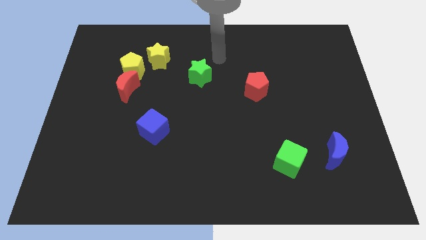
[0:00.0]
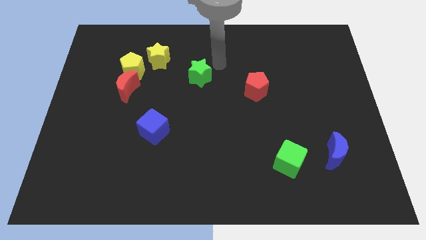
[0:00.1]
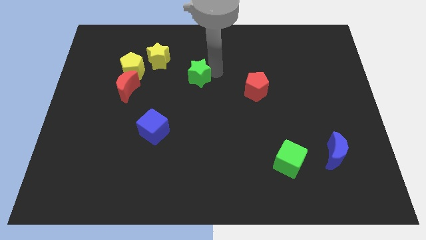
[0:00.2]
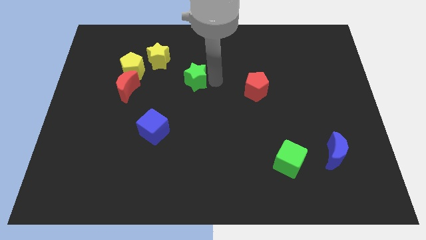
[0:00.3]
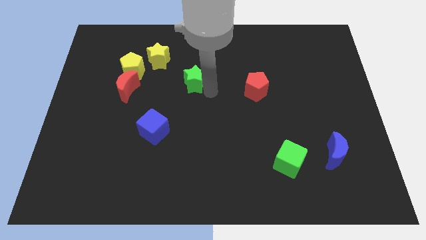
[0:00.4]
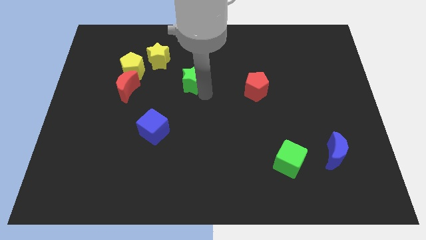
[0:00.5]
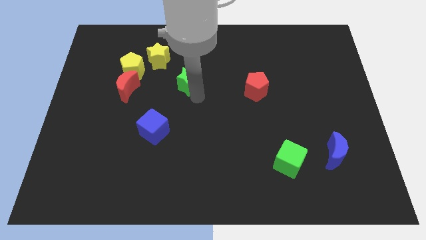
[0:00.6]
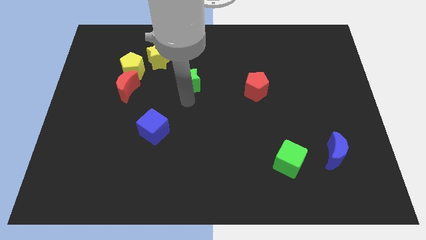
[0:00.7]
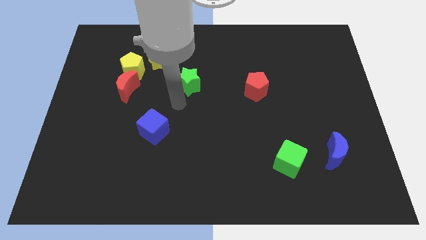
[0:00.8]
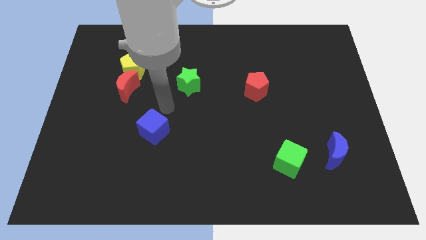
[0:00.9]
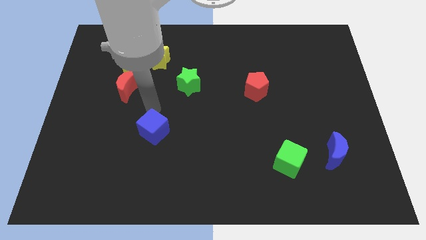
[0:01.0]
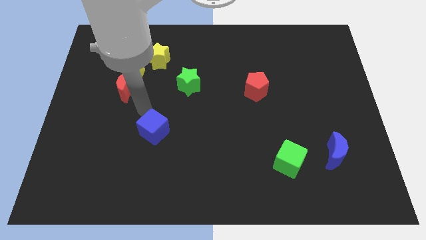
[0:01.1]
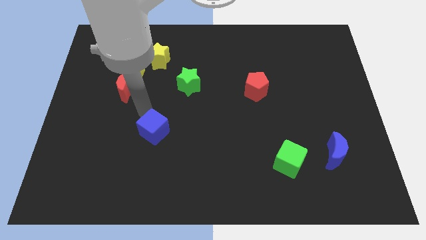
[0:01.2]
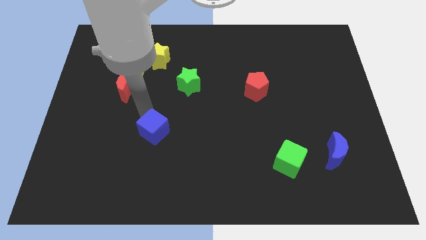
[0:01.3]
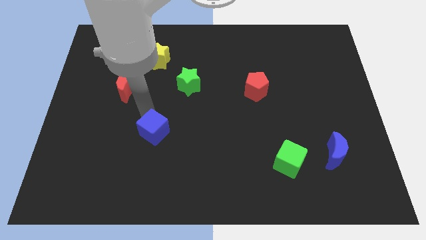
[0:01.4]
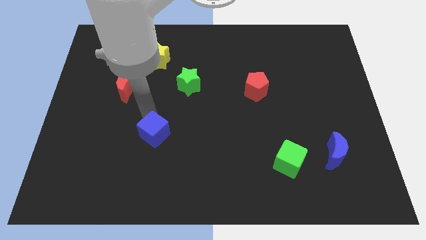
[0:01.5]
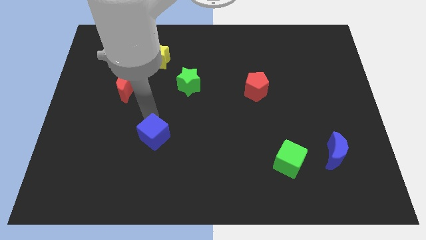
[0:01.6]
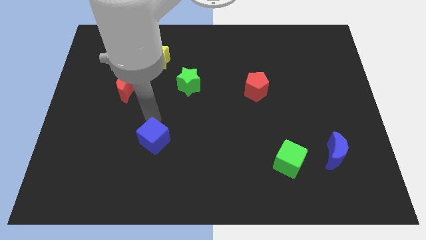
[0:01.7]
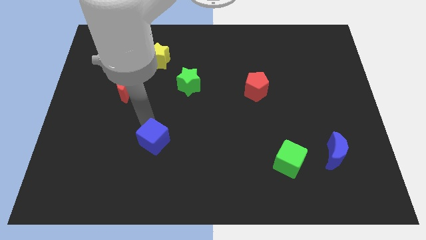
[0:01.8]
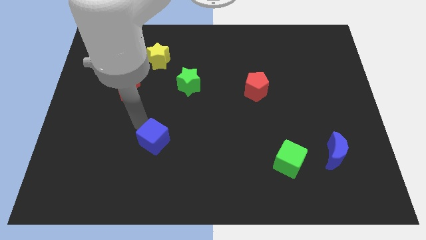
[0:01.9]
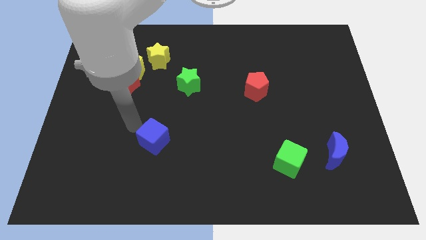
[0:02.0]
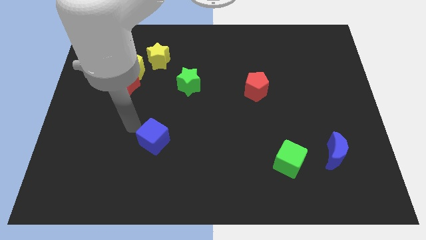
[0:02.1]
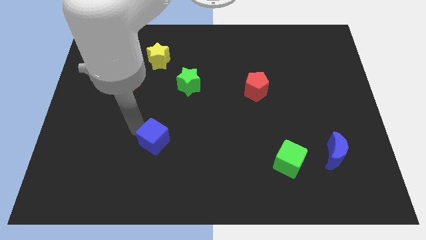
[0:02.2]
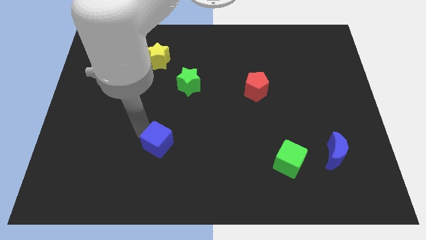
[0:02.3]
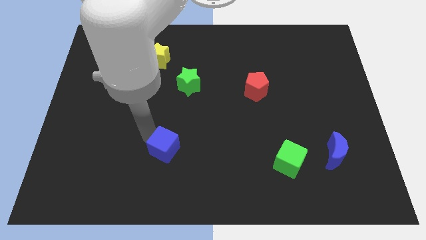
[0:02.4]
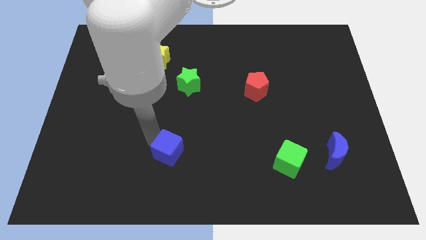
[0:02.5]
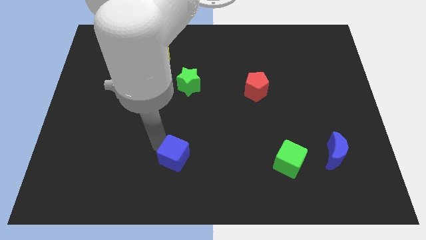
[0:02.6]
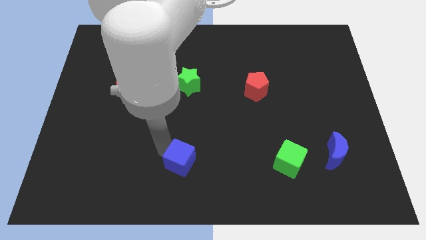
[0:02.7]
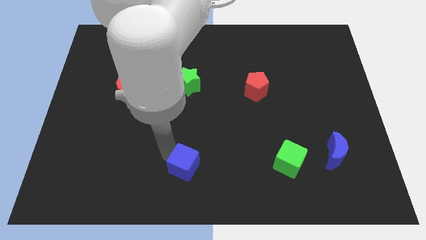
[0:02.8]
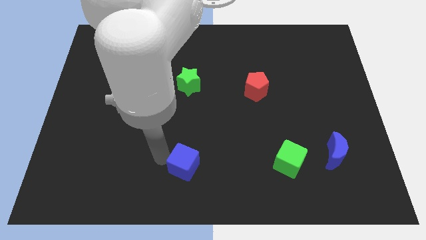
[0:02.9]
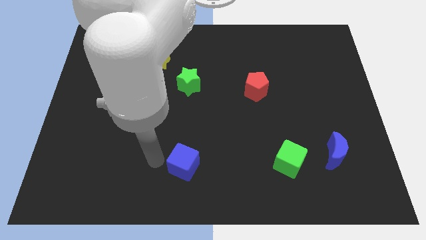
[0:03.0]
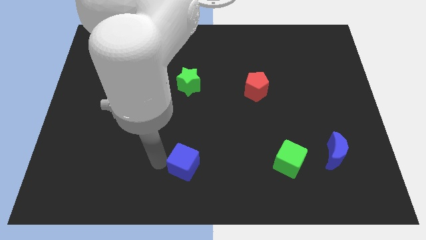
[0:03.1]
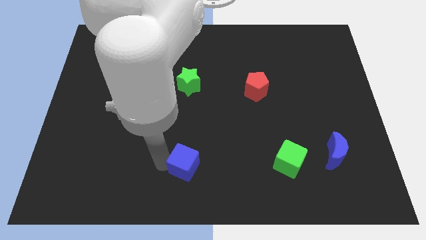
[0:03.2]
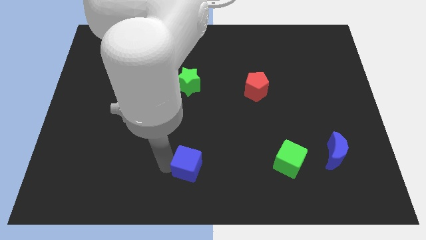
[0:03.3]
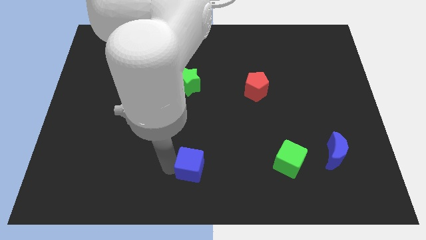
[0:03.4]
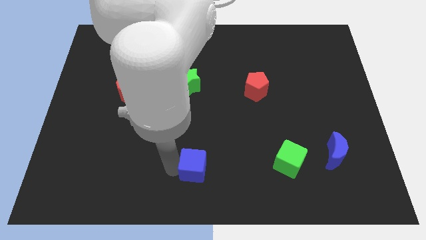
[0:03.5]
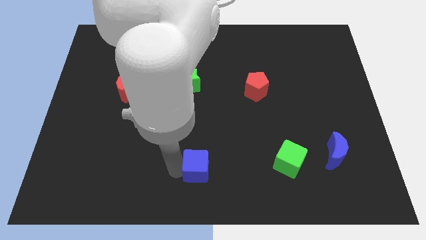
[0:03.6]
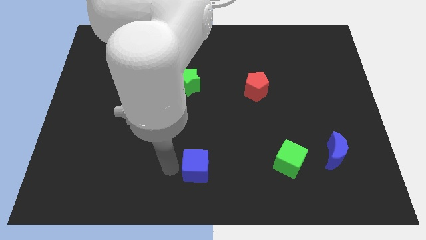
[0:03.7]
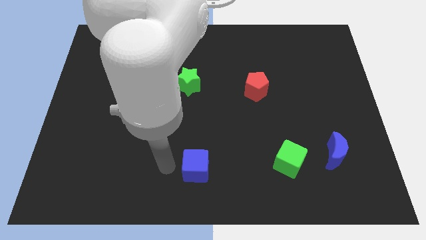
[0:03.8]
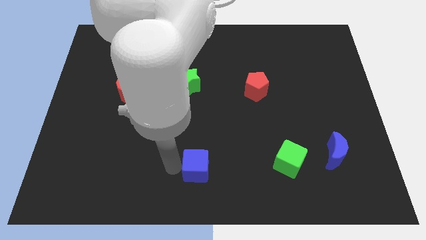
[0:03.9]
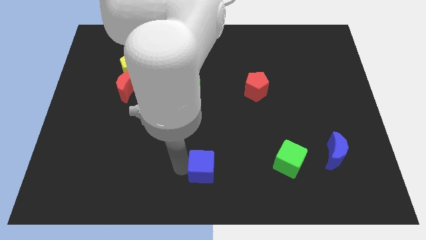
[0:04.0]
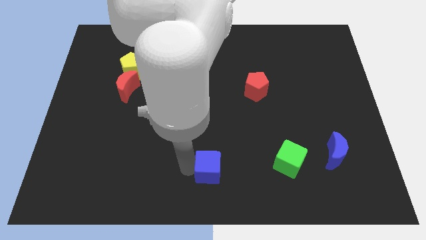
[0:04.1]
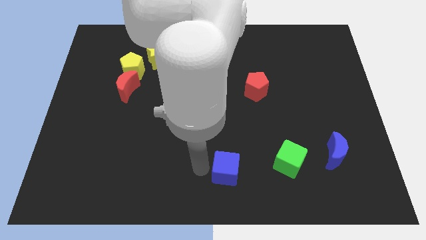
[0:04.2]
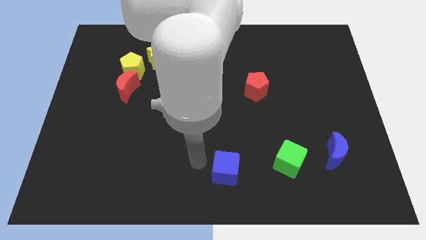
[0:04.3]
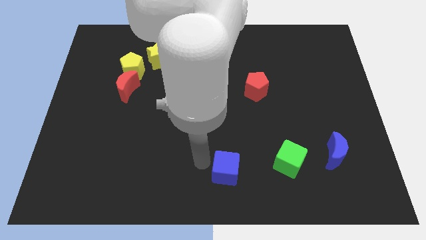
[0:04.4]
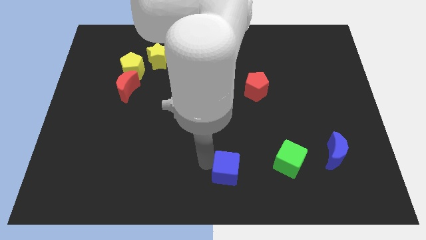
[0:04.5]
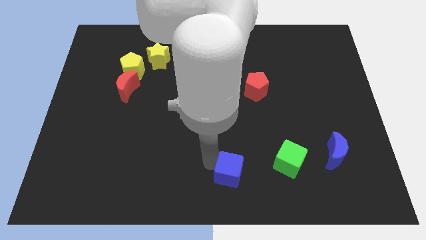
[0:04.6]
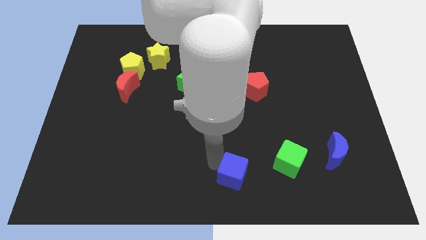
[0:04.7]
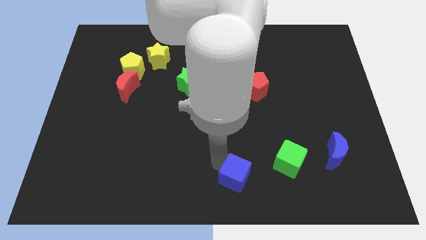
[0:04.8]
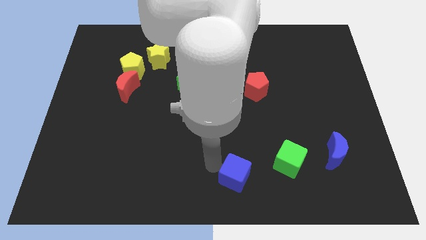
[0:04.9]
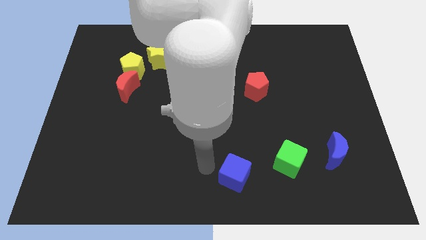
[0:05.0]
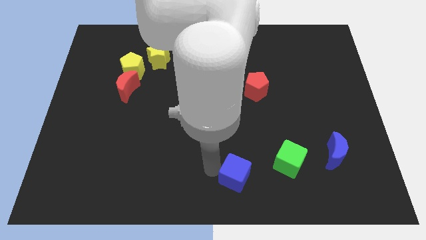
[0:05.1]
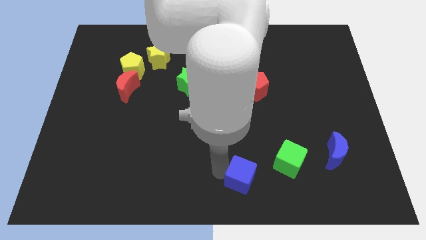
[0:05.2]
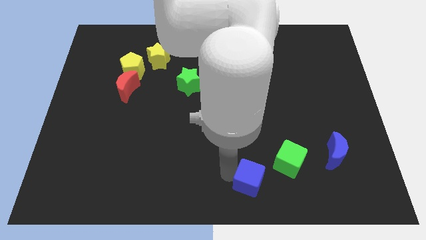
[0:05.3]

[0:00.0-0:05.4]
slide the blue cube to the bottom left side of the green cube

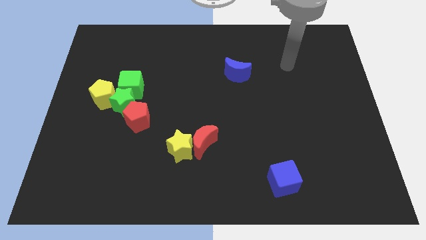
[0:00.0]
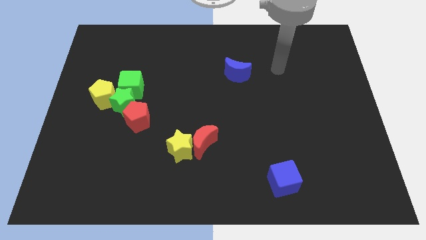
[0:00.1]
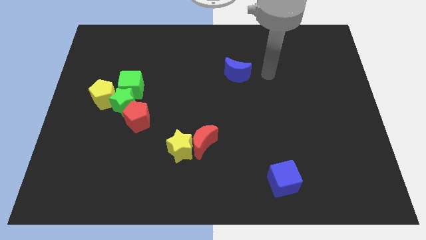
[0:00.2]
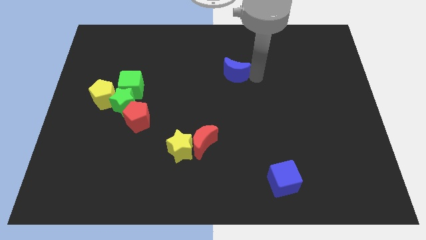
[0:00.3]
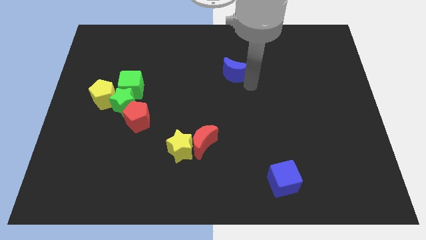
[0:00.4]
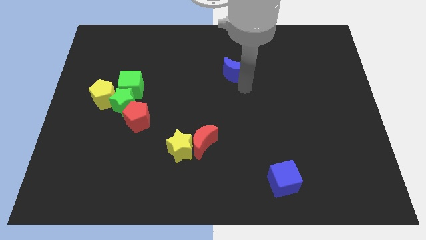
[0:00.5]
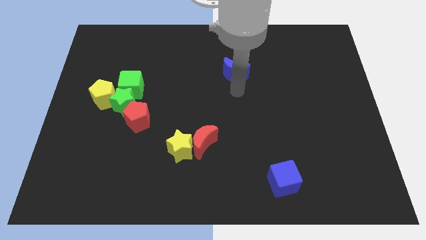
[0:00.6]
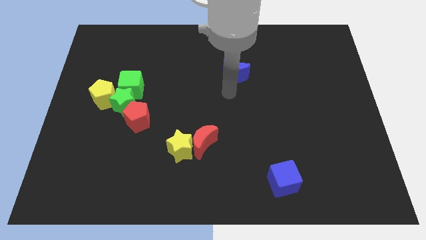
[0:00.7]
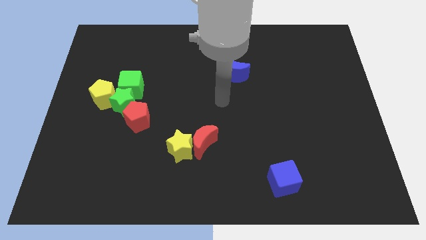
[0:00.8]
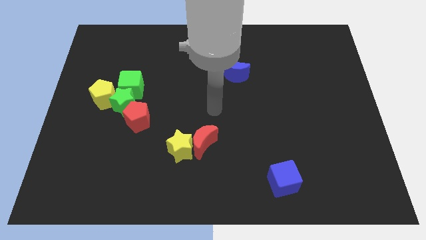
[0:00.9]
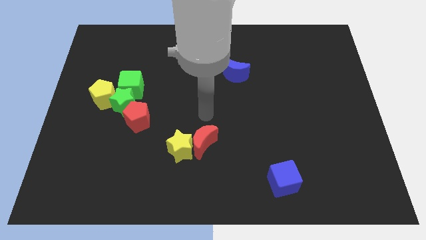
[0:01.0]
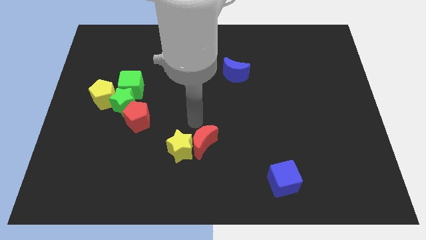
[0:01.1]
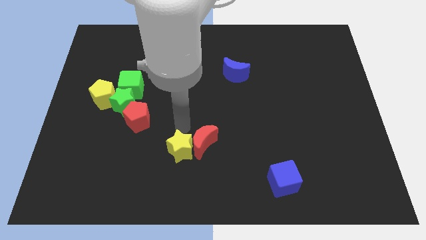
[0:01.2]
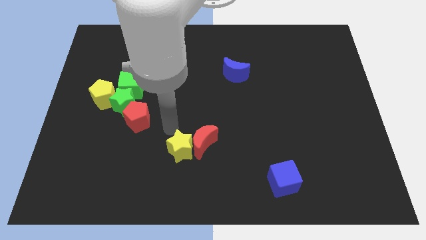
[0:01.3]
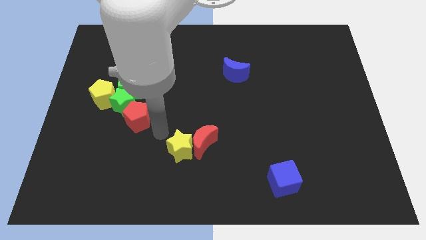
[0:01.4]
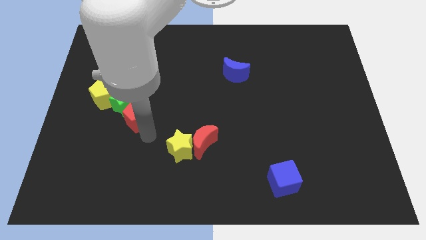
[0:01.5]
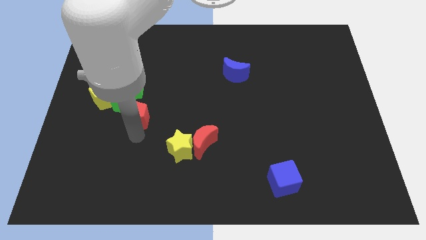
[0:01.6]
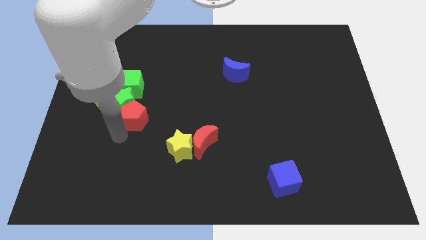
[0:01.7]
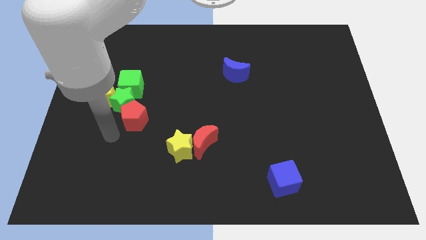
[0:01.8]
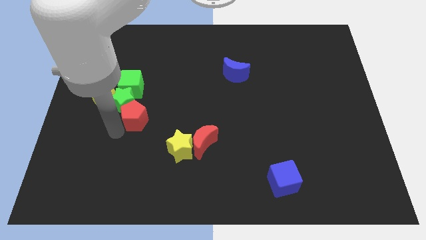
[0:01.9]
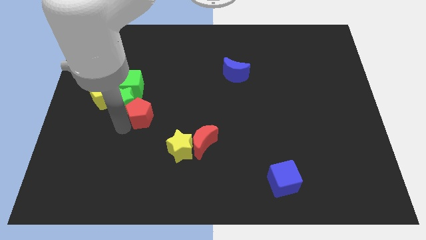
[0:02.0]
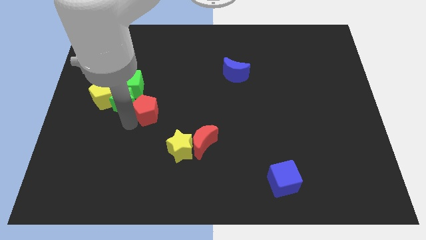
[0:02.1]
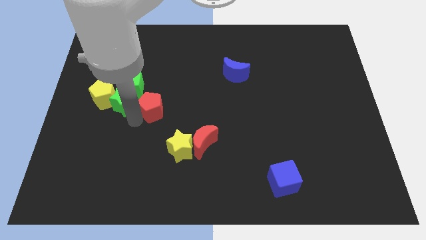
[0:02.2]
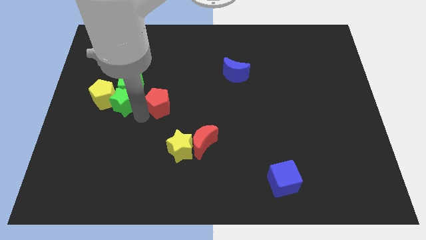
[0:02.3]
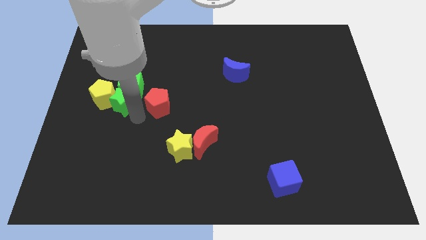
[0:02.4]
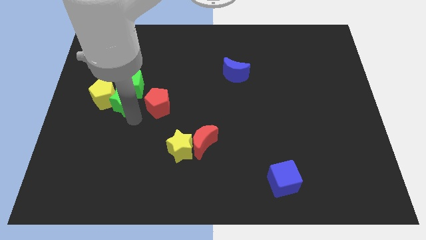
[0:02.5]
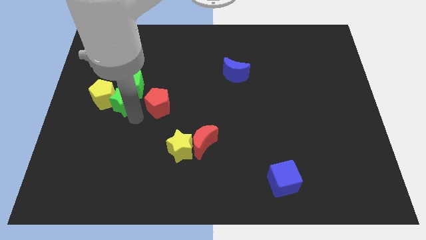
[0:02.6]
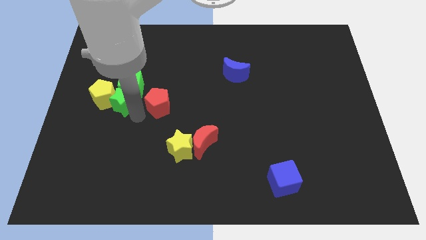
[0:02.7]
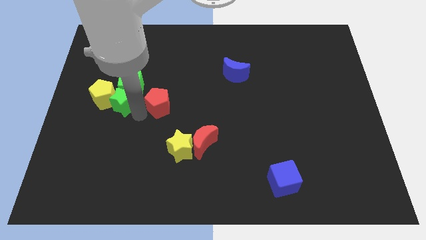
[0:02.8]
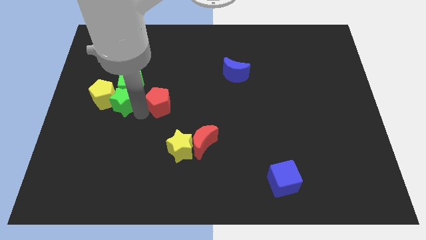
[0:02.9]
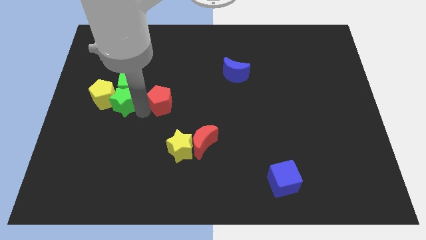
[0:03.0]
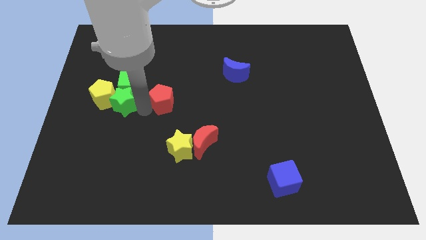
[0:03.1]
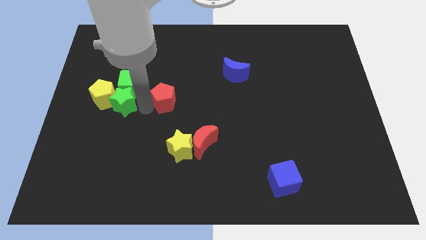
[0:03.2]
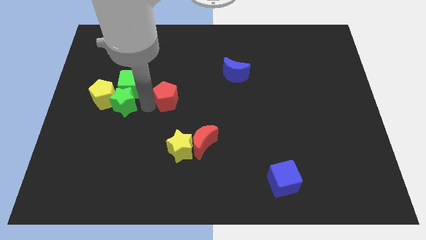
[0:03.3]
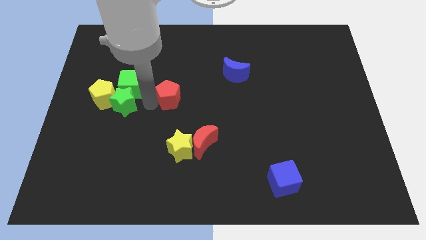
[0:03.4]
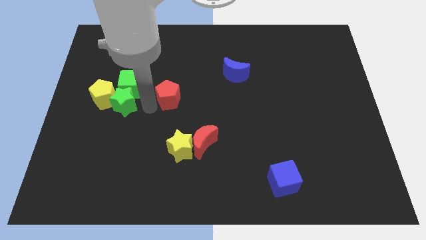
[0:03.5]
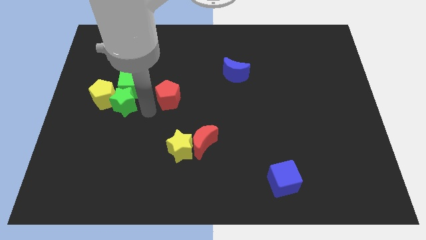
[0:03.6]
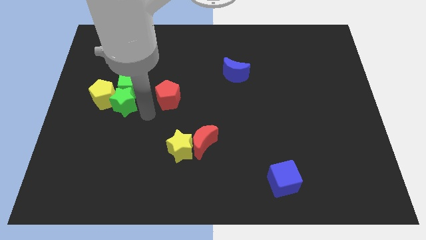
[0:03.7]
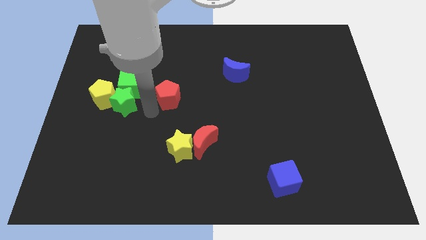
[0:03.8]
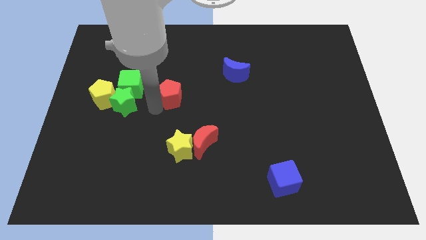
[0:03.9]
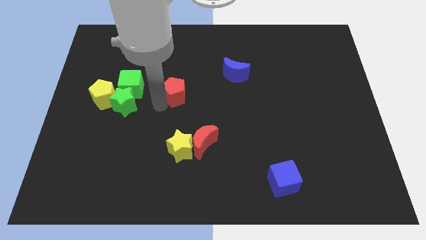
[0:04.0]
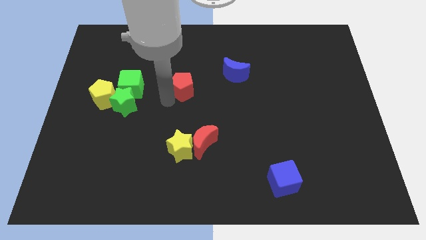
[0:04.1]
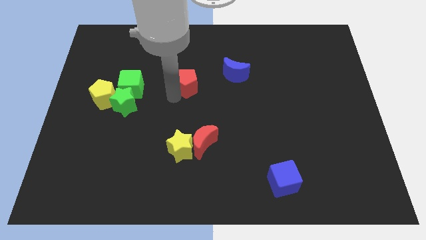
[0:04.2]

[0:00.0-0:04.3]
push the red pentagon to the left side of the blue moon
